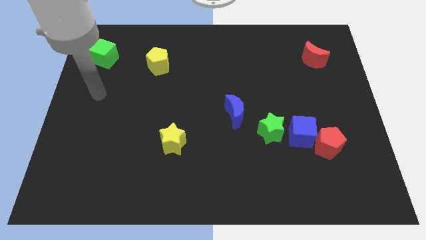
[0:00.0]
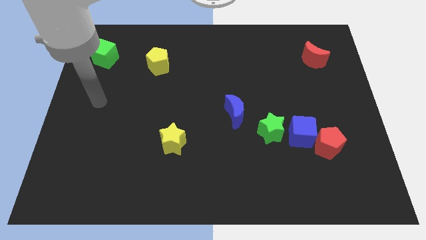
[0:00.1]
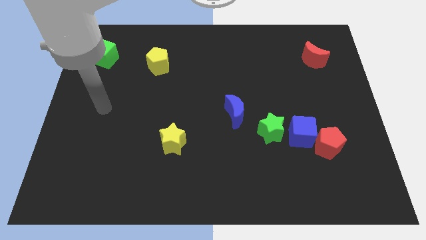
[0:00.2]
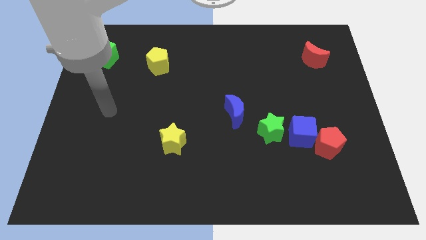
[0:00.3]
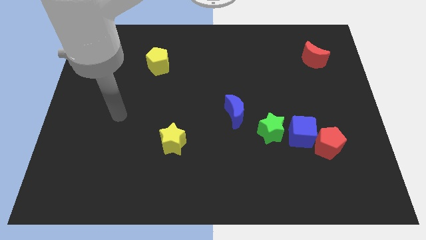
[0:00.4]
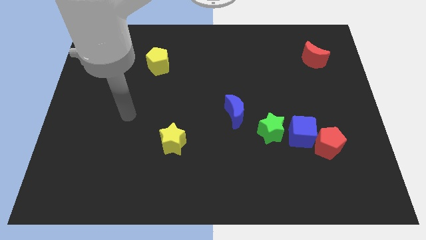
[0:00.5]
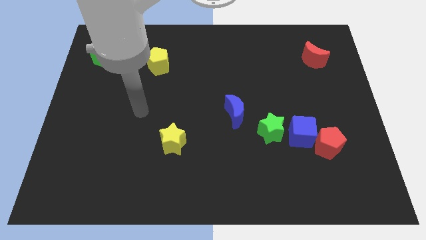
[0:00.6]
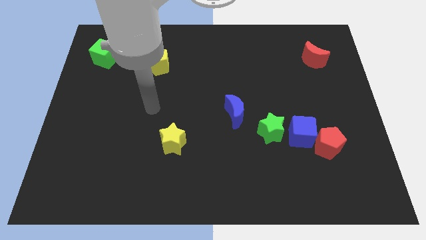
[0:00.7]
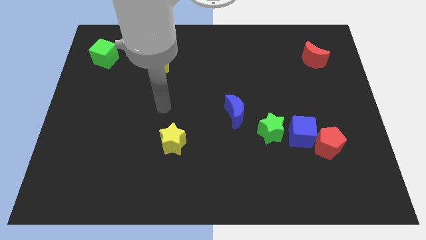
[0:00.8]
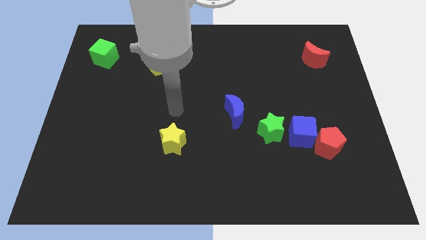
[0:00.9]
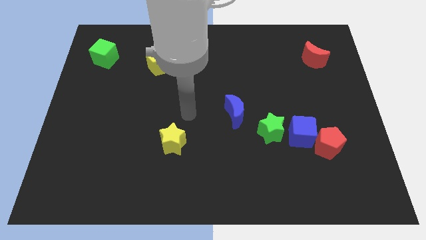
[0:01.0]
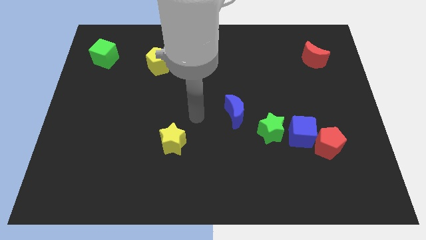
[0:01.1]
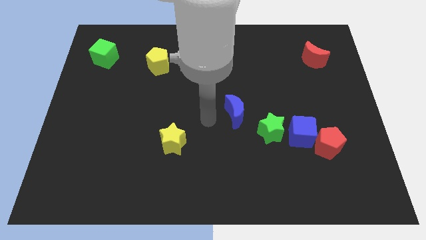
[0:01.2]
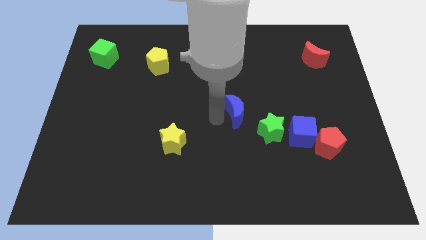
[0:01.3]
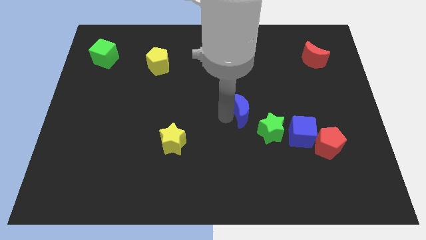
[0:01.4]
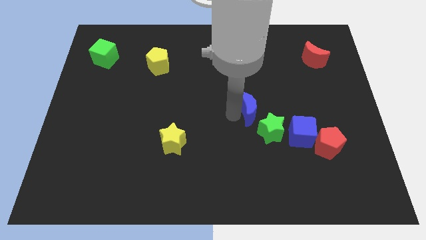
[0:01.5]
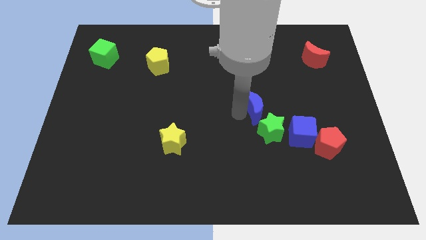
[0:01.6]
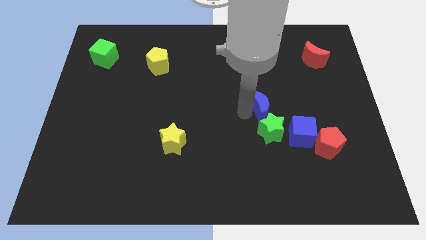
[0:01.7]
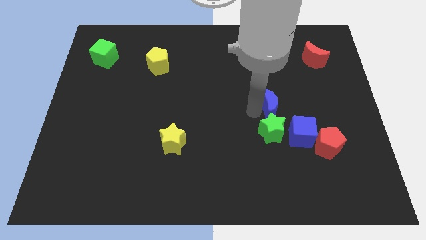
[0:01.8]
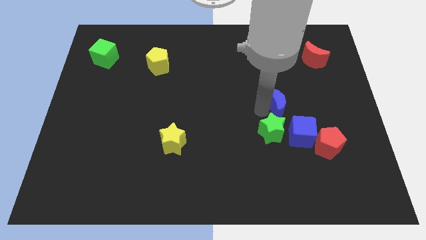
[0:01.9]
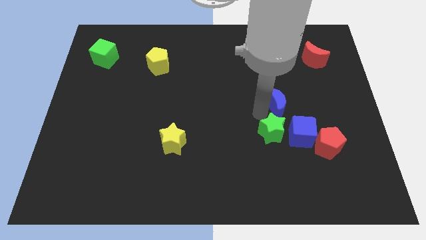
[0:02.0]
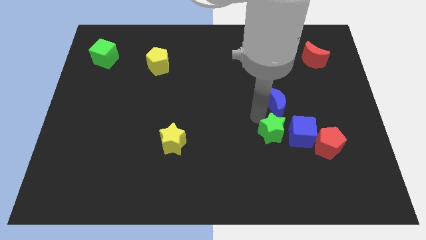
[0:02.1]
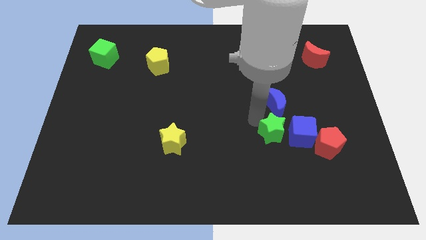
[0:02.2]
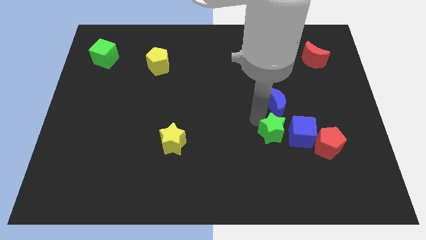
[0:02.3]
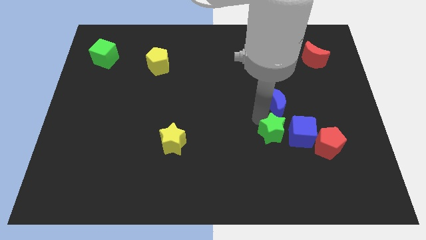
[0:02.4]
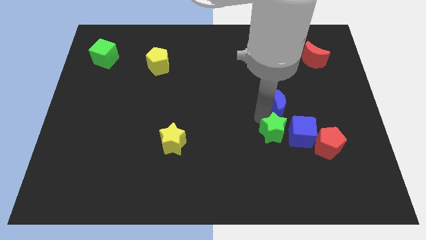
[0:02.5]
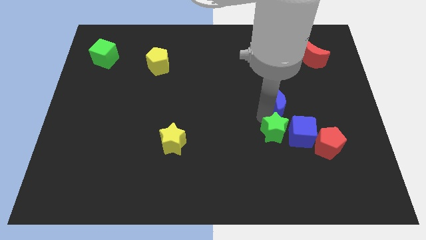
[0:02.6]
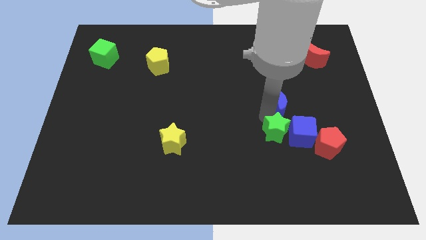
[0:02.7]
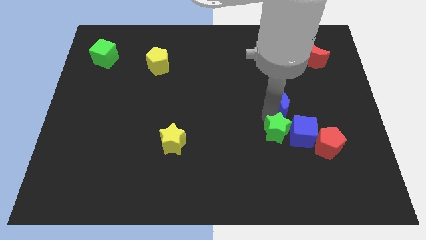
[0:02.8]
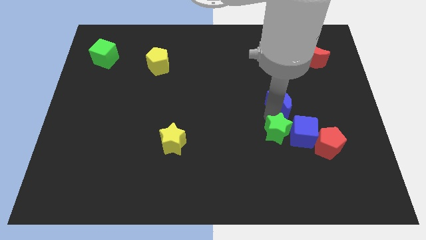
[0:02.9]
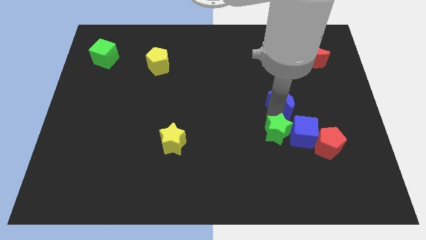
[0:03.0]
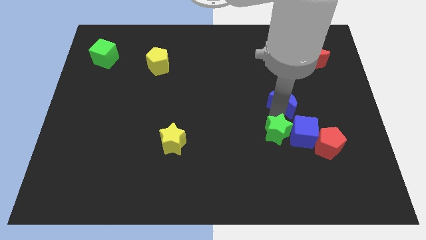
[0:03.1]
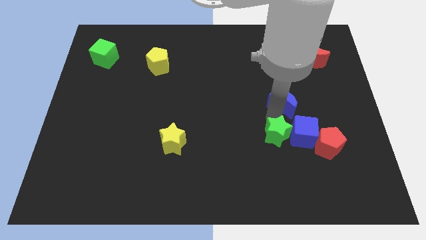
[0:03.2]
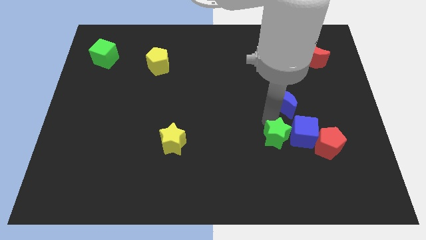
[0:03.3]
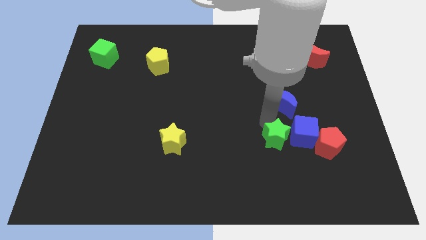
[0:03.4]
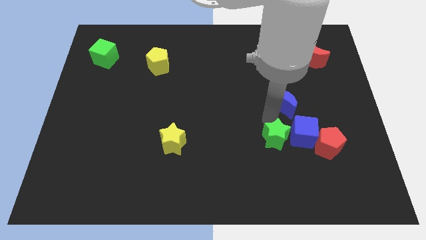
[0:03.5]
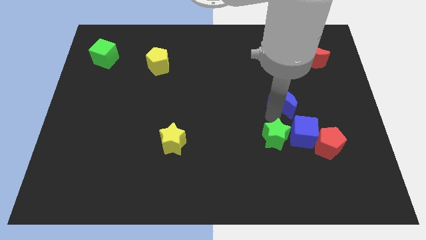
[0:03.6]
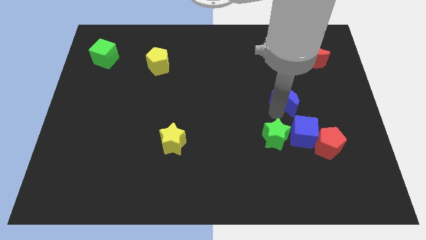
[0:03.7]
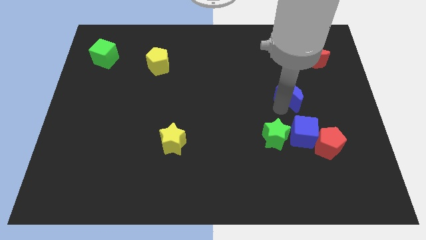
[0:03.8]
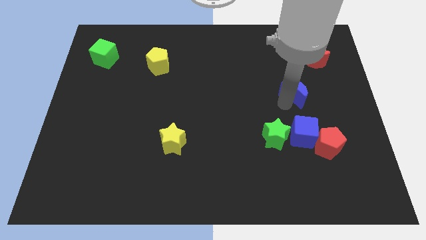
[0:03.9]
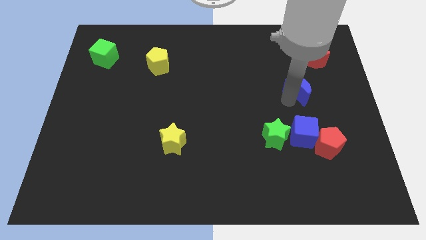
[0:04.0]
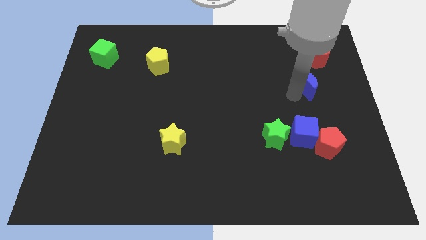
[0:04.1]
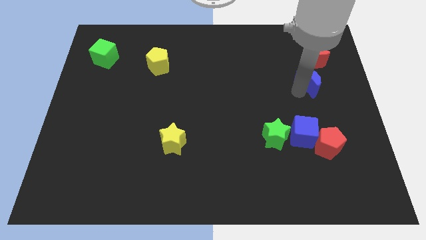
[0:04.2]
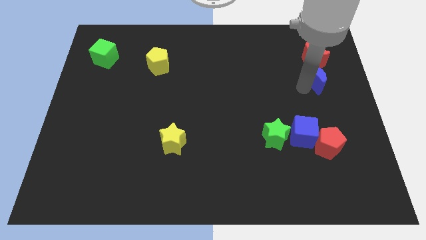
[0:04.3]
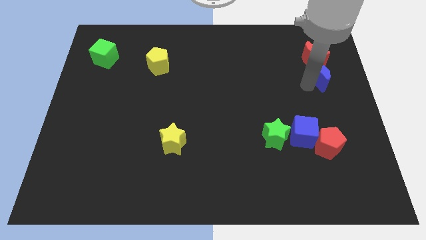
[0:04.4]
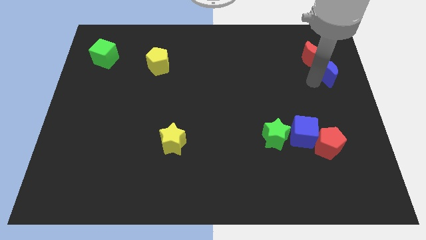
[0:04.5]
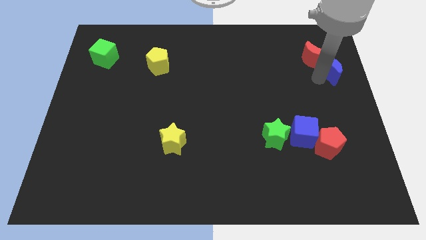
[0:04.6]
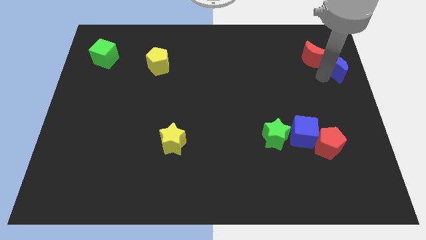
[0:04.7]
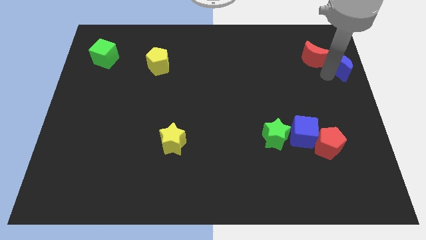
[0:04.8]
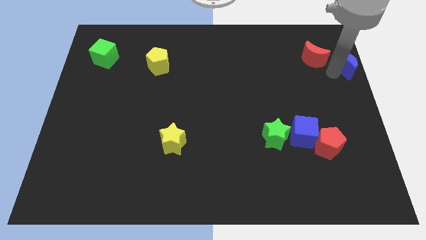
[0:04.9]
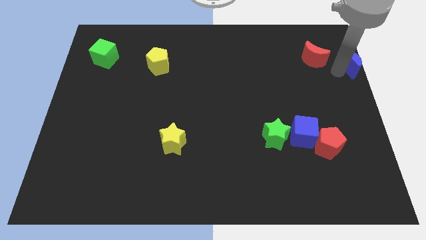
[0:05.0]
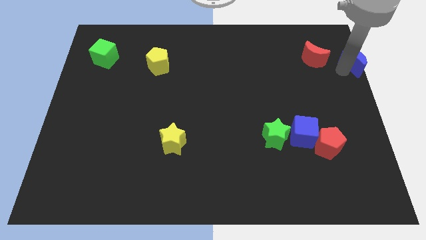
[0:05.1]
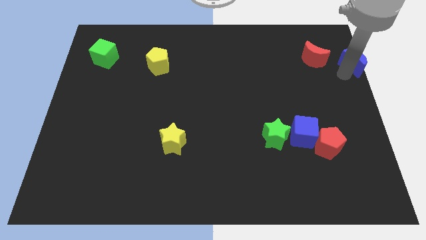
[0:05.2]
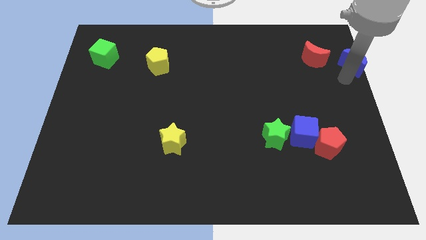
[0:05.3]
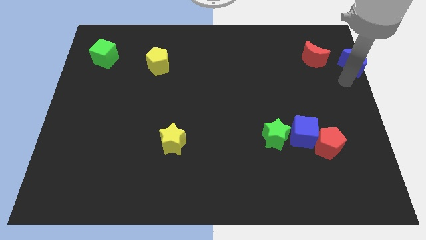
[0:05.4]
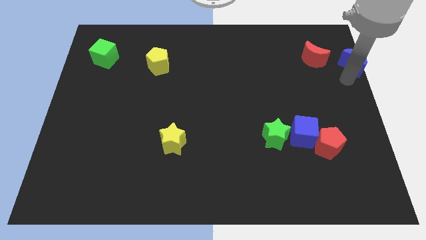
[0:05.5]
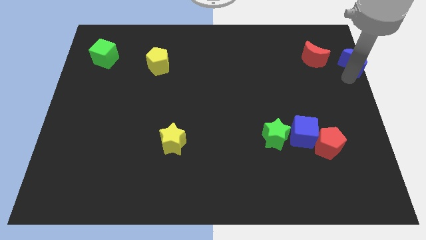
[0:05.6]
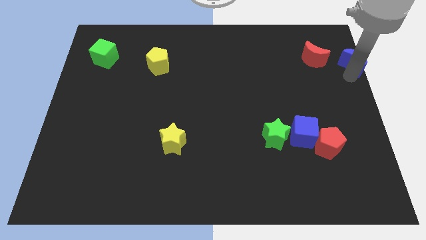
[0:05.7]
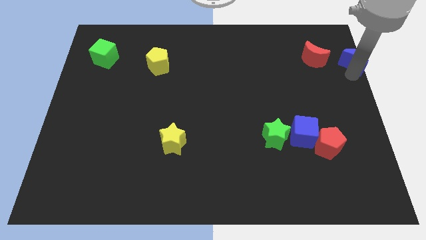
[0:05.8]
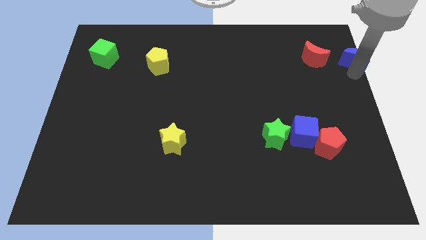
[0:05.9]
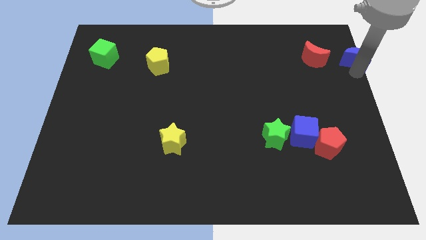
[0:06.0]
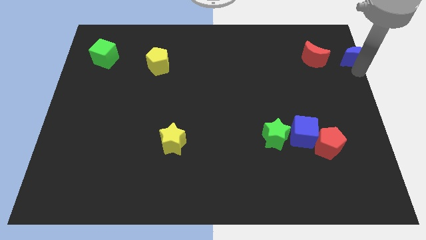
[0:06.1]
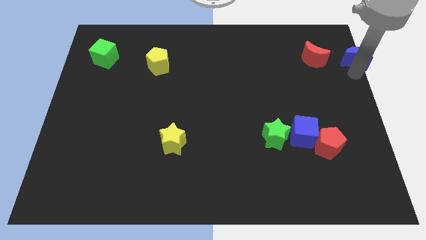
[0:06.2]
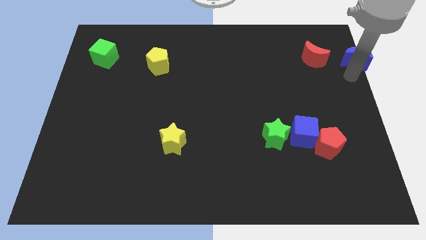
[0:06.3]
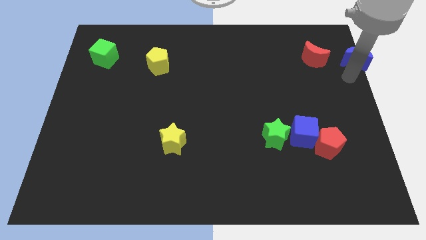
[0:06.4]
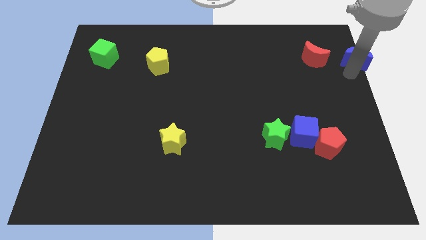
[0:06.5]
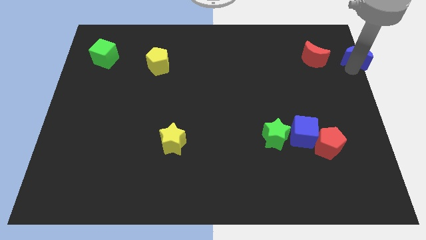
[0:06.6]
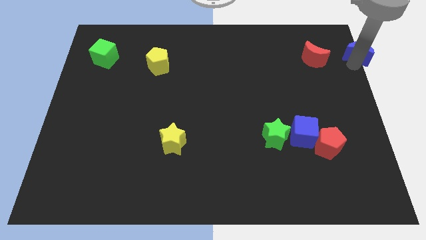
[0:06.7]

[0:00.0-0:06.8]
move the blue moon to the top right
